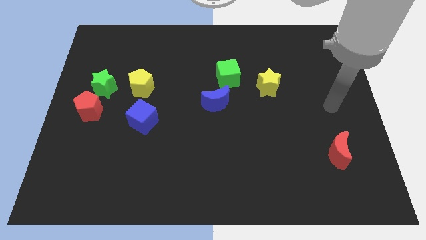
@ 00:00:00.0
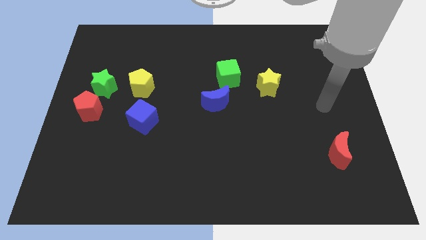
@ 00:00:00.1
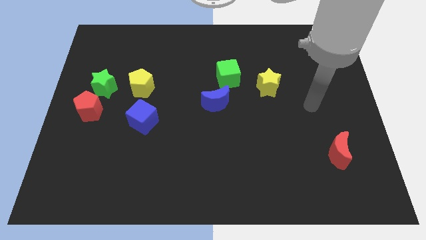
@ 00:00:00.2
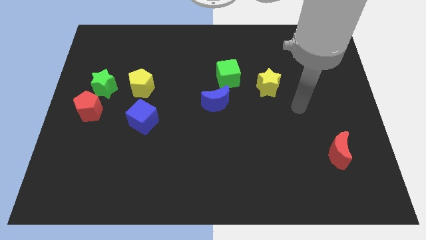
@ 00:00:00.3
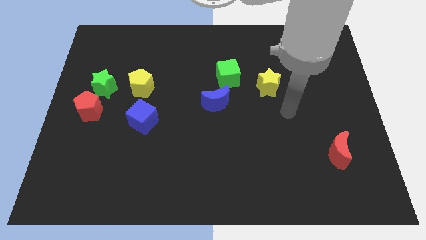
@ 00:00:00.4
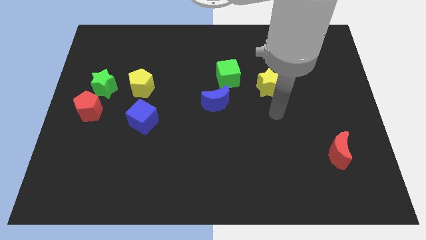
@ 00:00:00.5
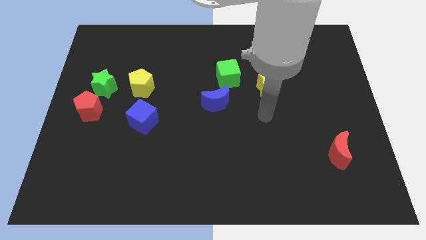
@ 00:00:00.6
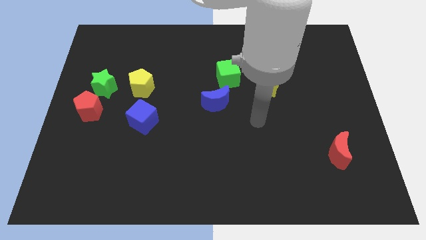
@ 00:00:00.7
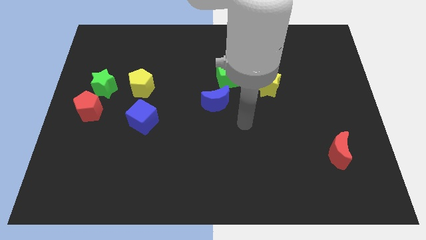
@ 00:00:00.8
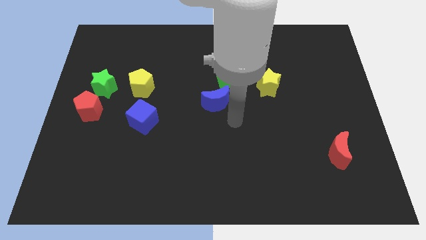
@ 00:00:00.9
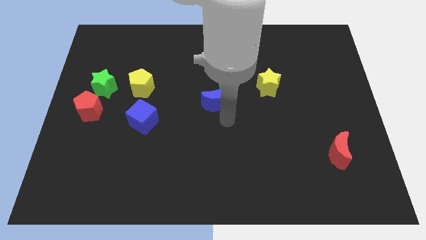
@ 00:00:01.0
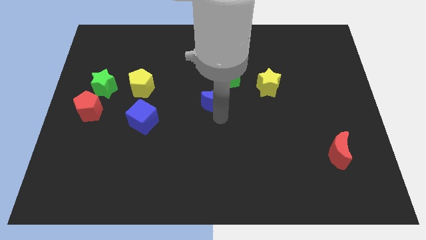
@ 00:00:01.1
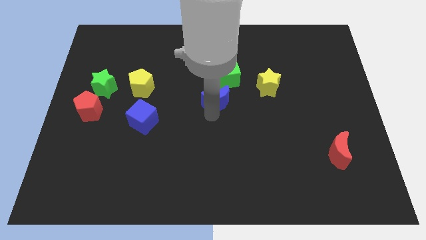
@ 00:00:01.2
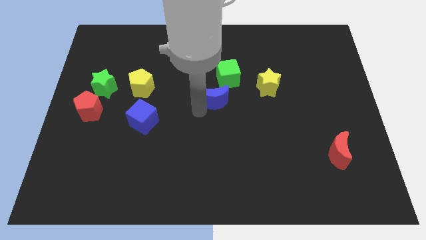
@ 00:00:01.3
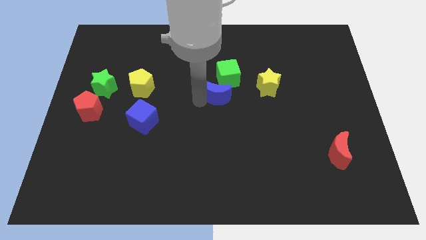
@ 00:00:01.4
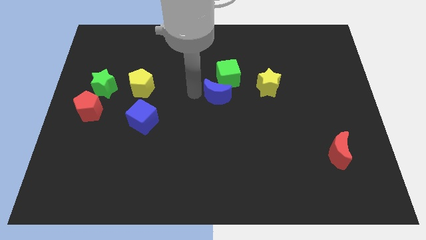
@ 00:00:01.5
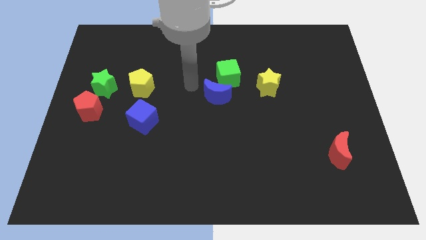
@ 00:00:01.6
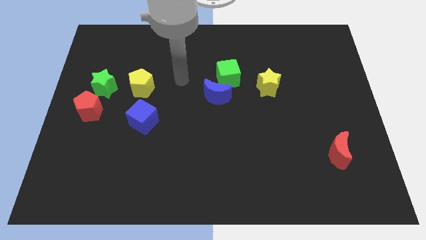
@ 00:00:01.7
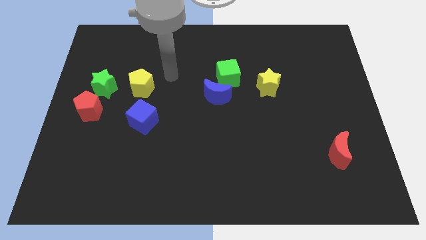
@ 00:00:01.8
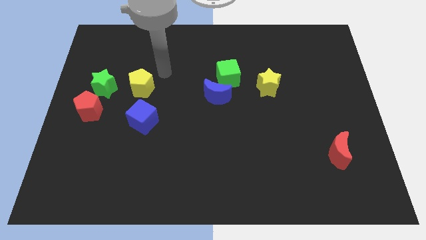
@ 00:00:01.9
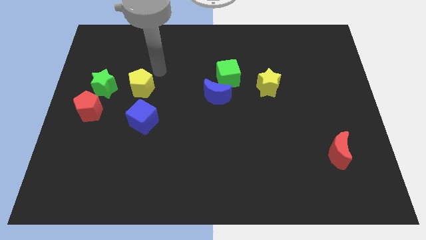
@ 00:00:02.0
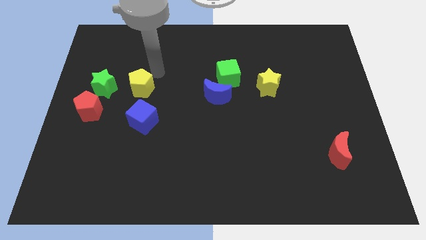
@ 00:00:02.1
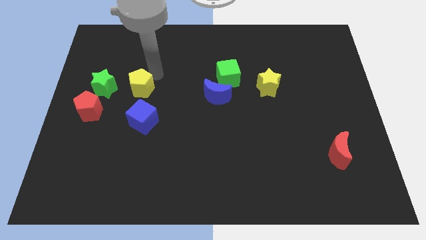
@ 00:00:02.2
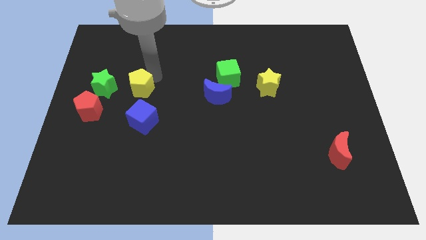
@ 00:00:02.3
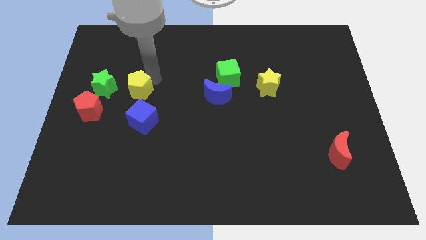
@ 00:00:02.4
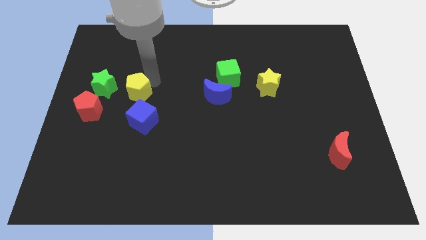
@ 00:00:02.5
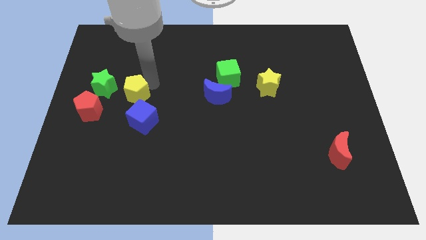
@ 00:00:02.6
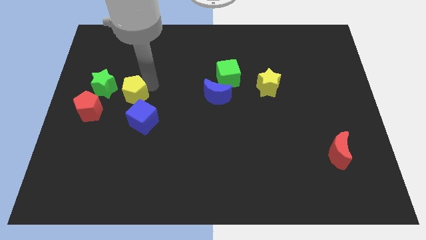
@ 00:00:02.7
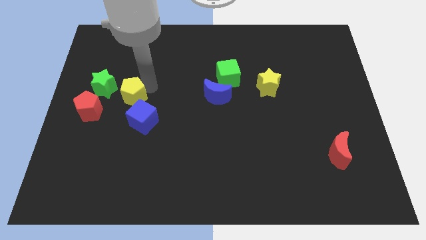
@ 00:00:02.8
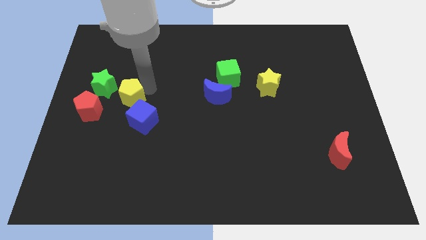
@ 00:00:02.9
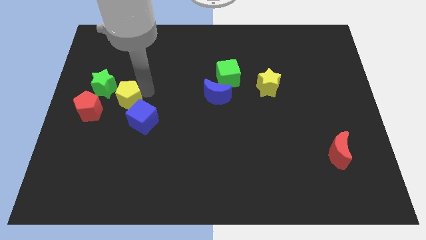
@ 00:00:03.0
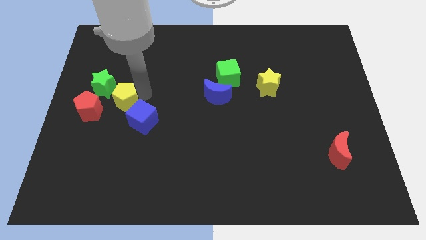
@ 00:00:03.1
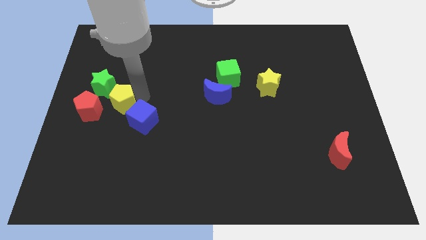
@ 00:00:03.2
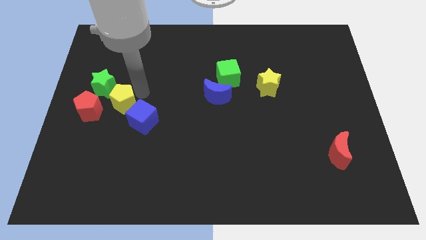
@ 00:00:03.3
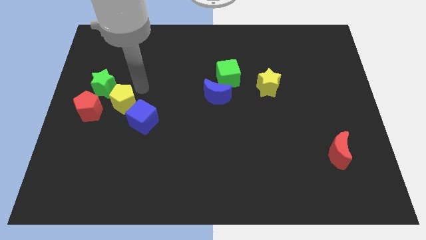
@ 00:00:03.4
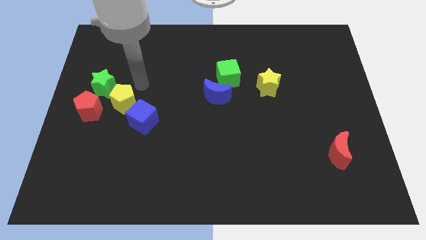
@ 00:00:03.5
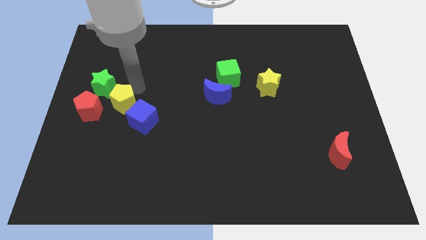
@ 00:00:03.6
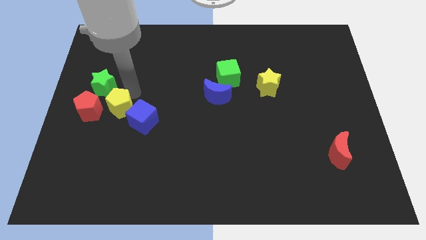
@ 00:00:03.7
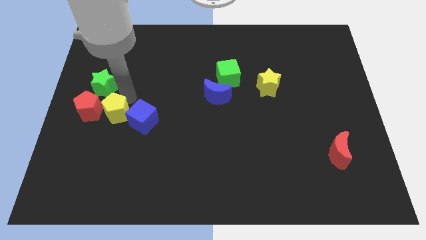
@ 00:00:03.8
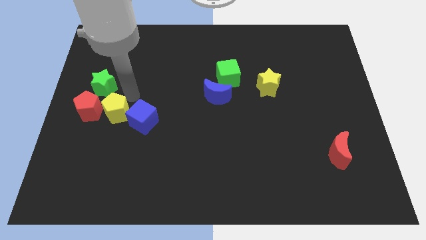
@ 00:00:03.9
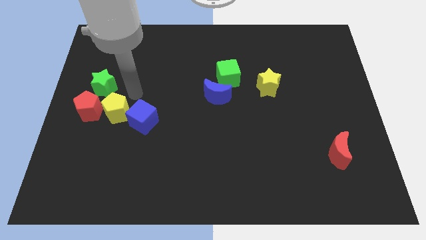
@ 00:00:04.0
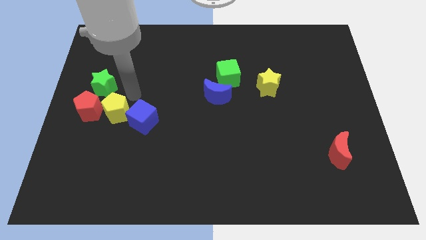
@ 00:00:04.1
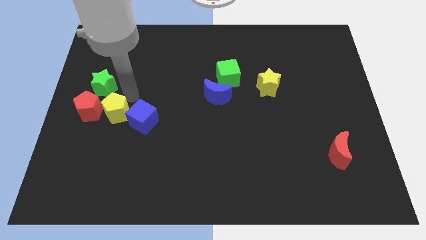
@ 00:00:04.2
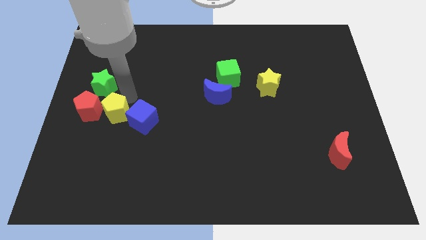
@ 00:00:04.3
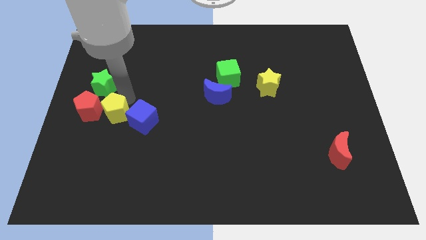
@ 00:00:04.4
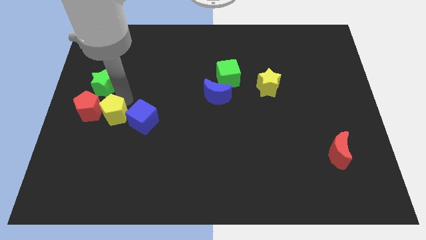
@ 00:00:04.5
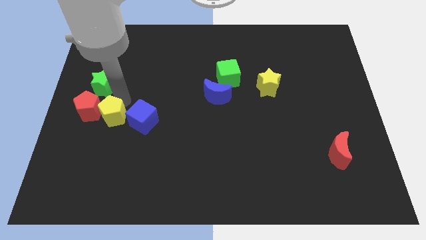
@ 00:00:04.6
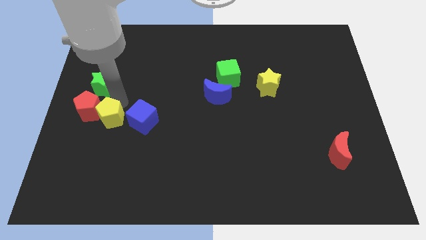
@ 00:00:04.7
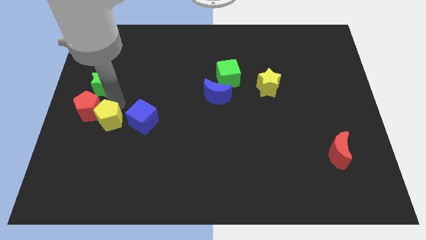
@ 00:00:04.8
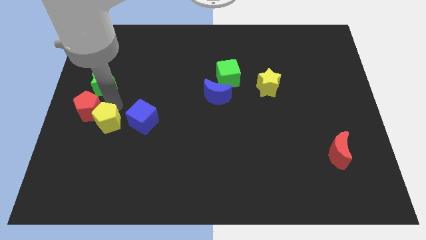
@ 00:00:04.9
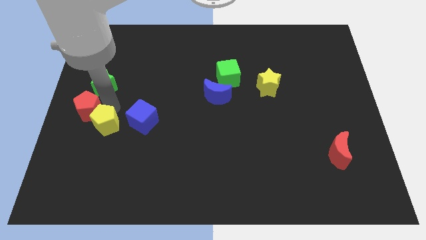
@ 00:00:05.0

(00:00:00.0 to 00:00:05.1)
put the yellow pentagon to the bottom side of the red pentagon
